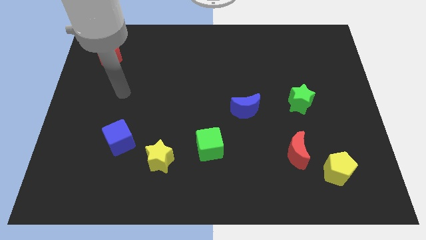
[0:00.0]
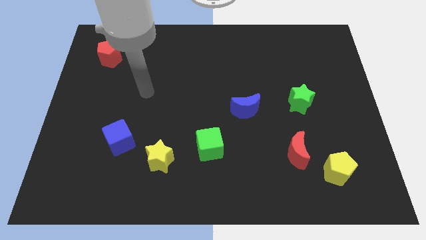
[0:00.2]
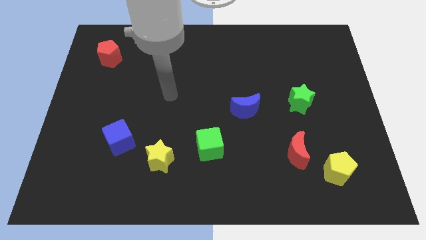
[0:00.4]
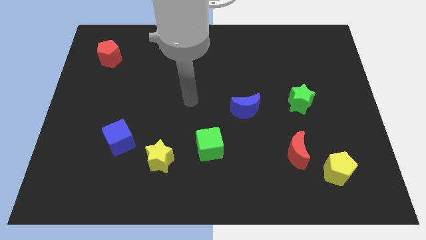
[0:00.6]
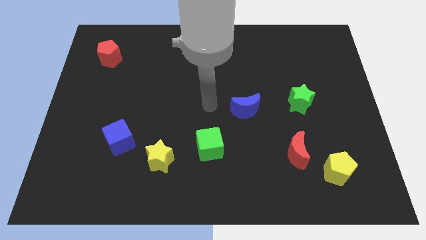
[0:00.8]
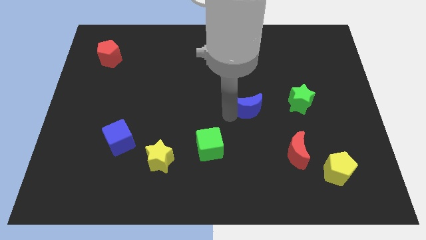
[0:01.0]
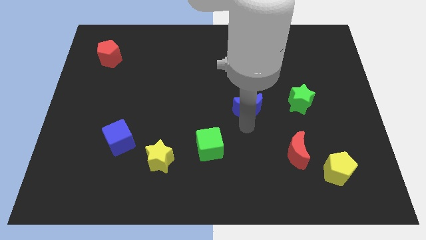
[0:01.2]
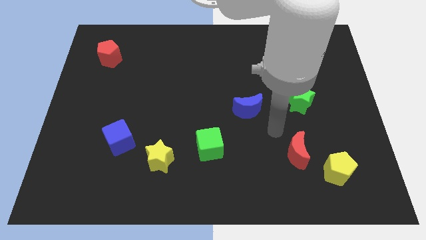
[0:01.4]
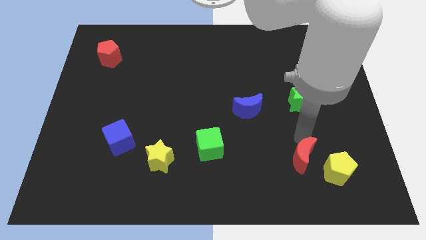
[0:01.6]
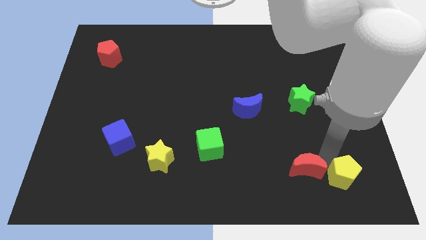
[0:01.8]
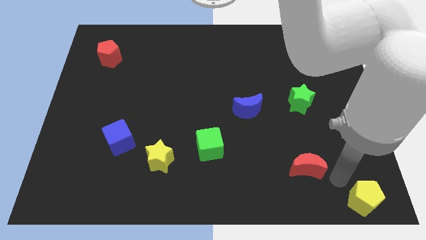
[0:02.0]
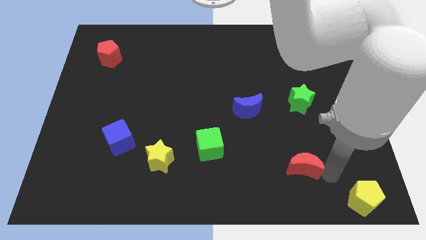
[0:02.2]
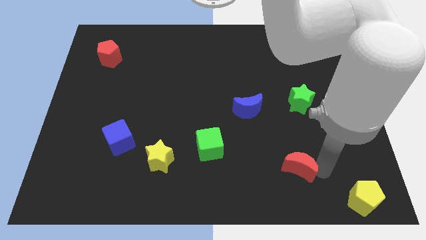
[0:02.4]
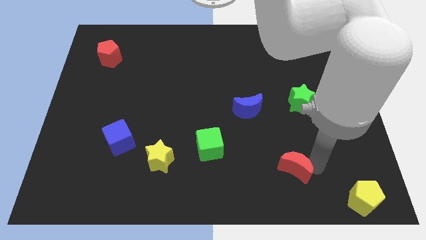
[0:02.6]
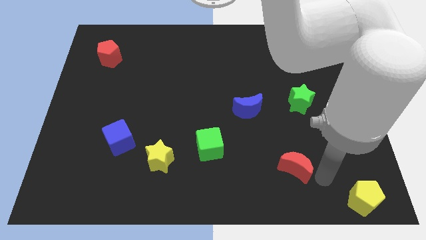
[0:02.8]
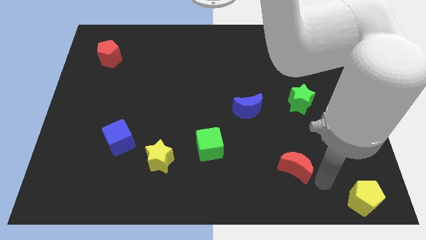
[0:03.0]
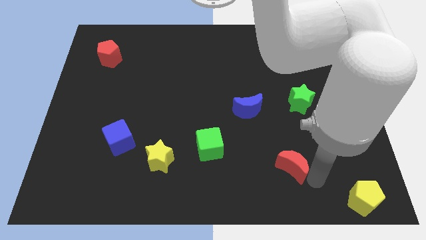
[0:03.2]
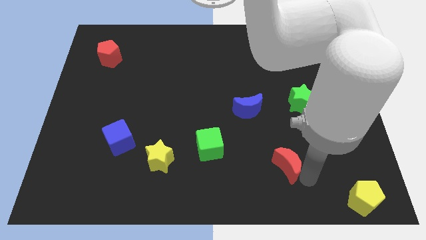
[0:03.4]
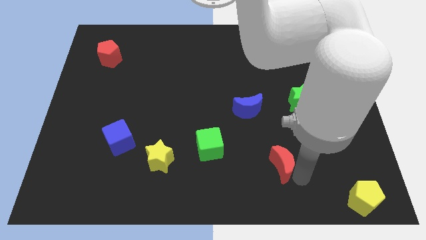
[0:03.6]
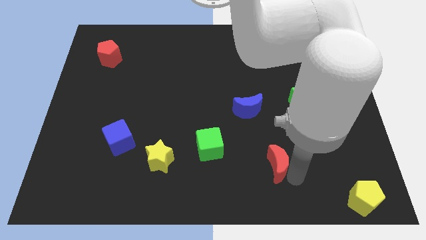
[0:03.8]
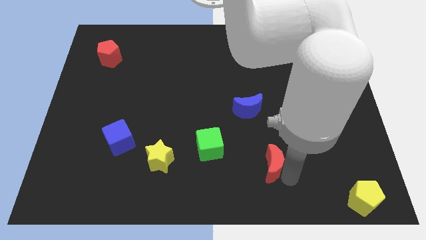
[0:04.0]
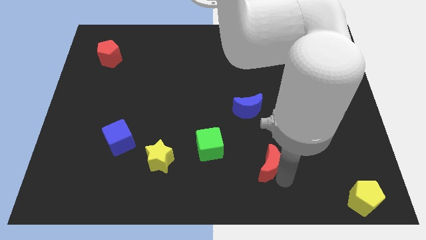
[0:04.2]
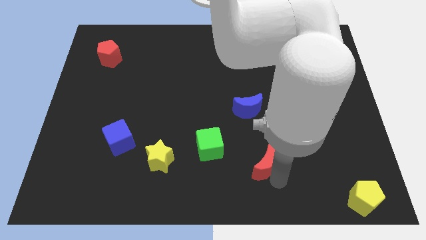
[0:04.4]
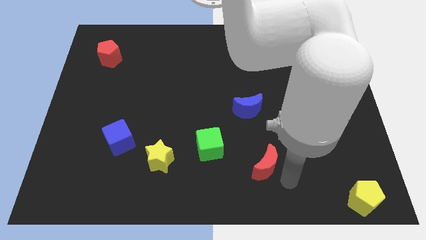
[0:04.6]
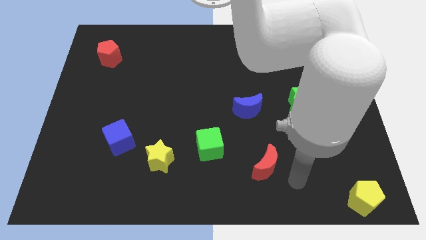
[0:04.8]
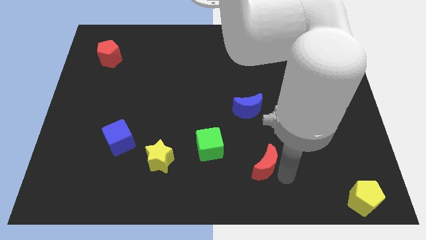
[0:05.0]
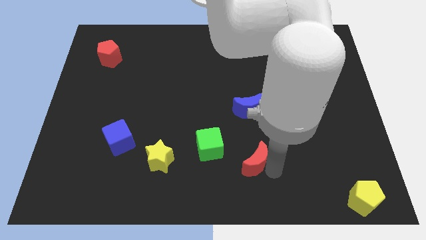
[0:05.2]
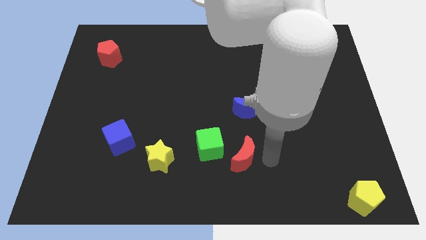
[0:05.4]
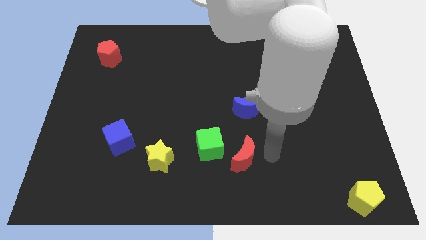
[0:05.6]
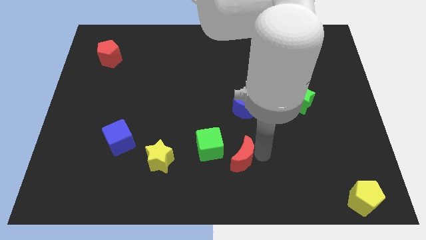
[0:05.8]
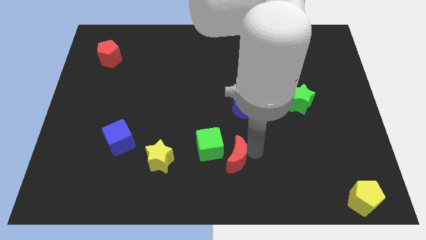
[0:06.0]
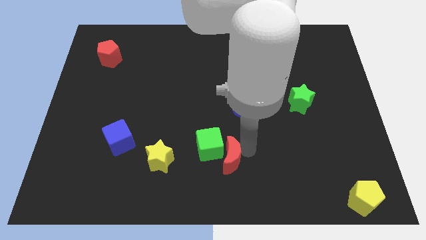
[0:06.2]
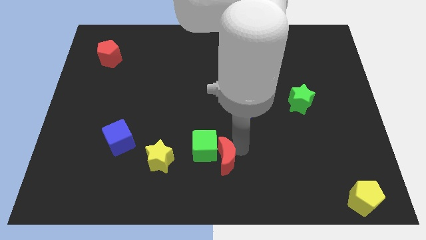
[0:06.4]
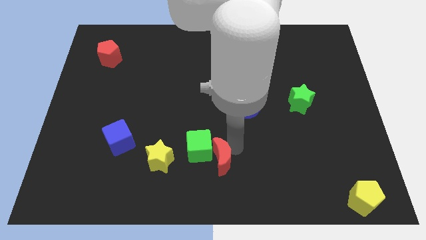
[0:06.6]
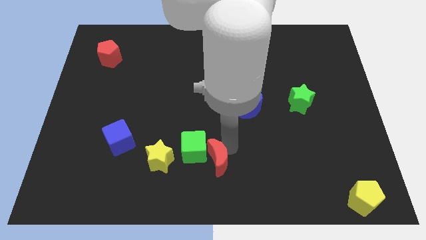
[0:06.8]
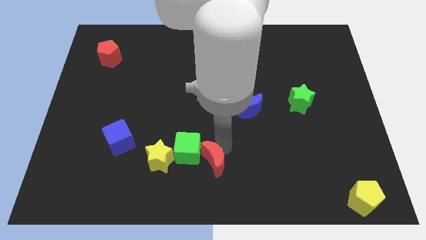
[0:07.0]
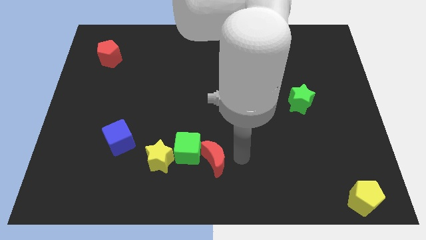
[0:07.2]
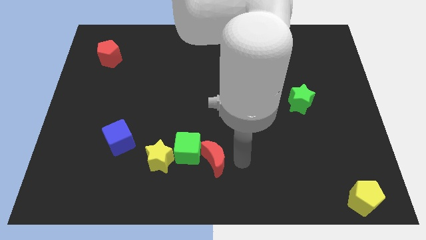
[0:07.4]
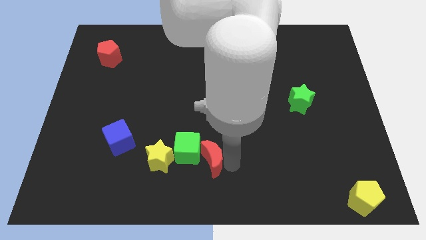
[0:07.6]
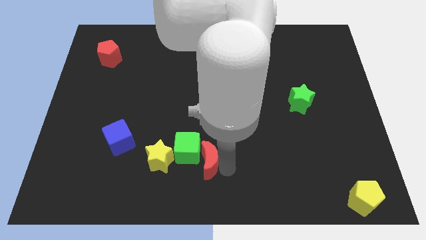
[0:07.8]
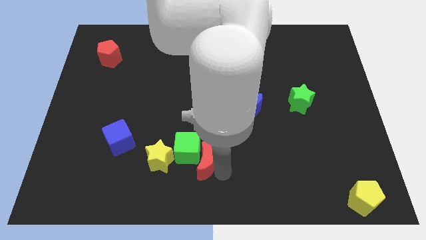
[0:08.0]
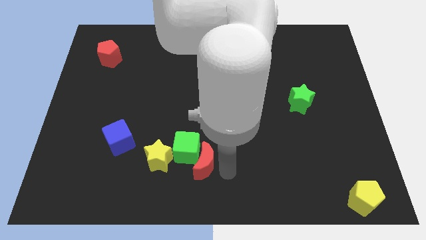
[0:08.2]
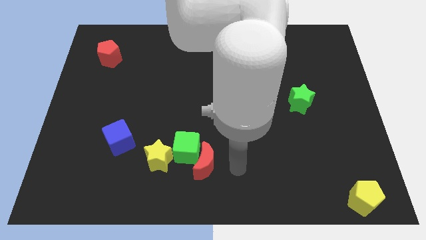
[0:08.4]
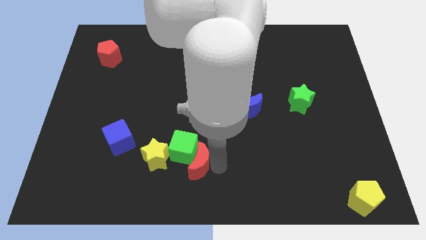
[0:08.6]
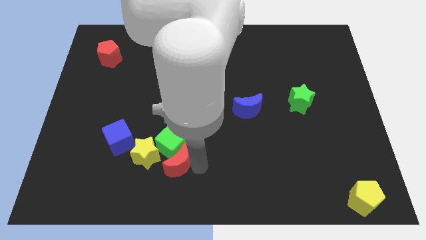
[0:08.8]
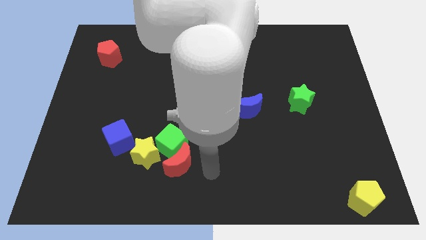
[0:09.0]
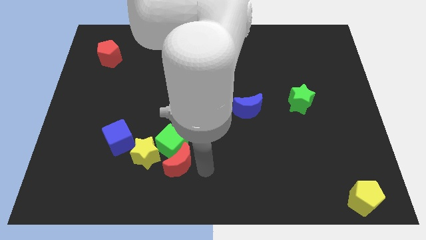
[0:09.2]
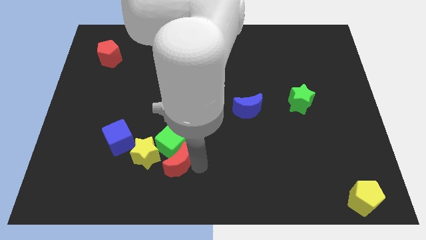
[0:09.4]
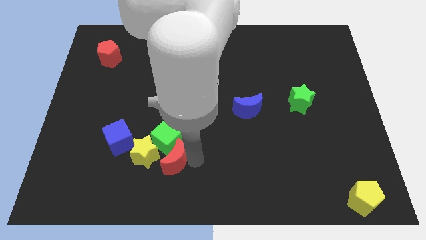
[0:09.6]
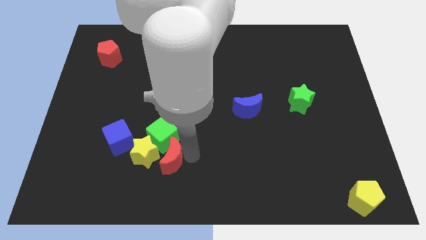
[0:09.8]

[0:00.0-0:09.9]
move the red moon to the yellow star

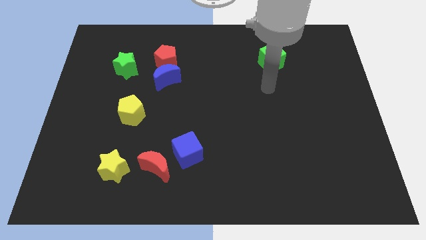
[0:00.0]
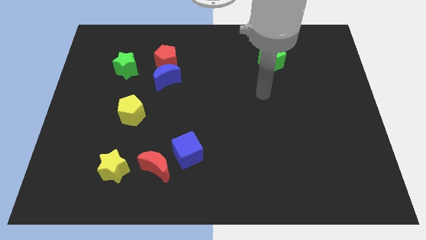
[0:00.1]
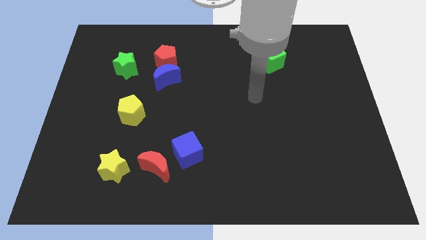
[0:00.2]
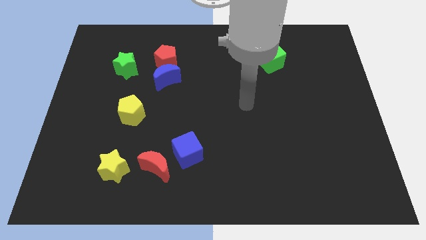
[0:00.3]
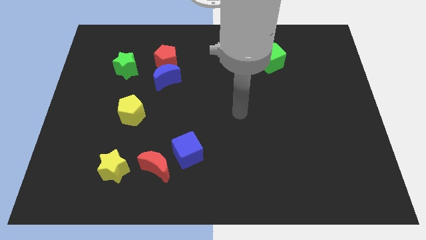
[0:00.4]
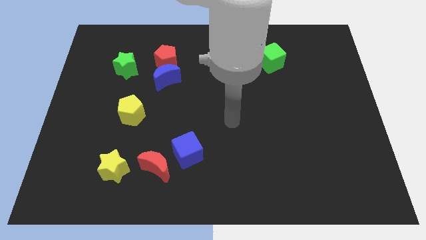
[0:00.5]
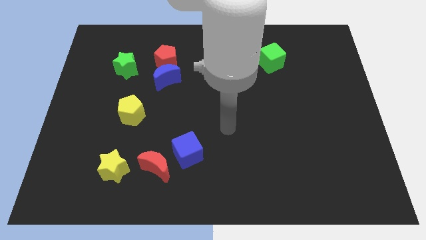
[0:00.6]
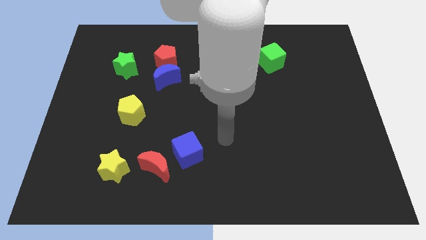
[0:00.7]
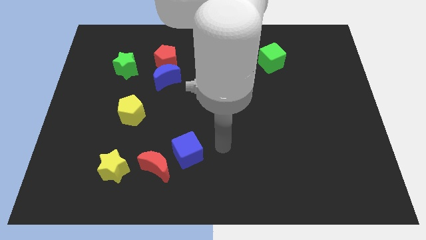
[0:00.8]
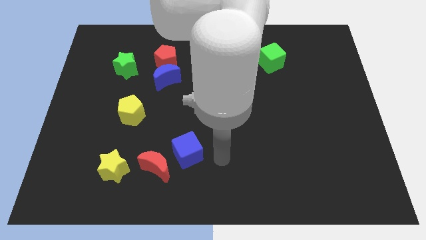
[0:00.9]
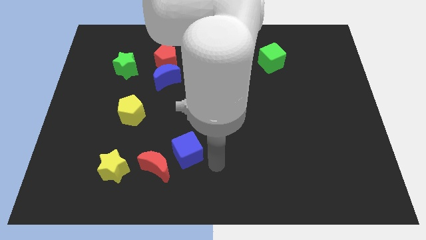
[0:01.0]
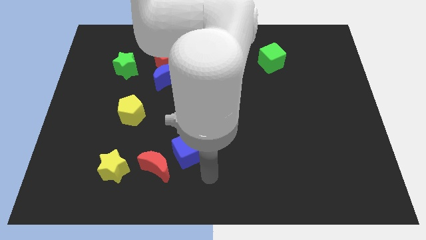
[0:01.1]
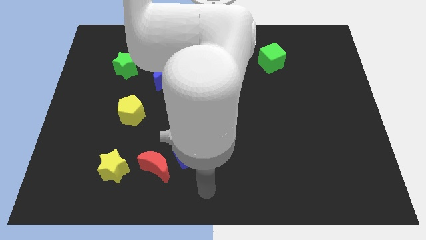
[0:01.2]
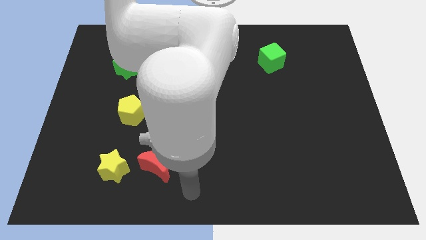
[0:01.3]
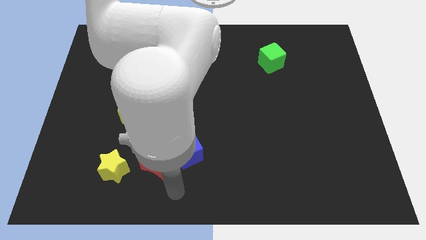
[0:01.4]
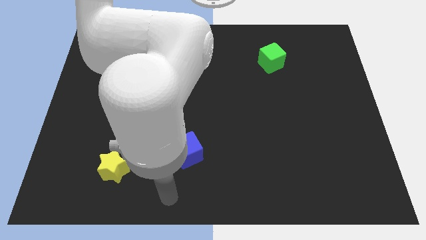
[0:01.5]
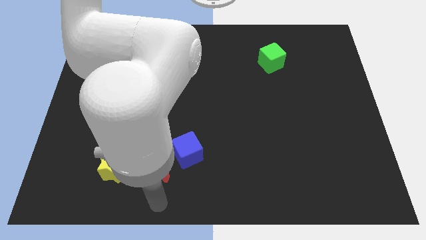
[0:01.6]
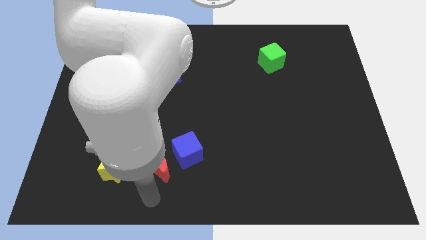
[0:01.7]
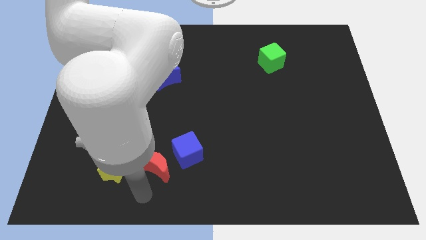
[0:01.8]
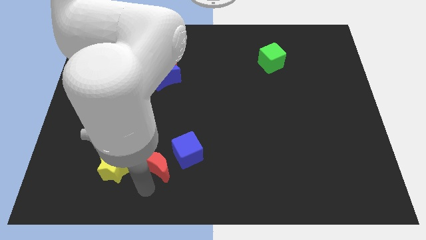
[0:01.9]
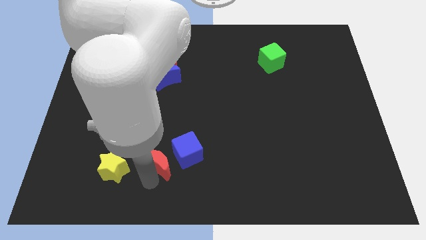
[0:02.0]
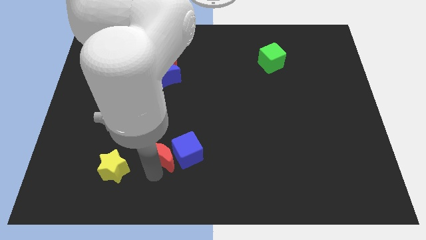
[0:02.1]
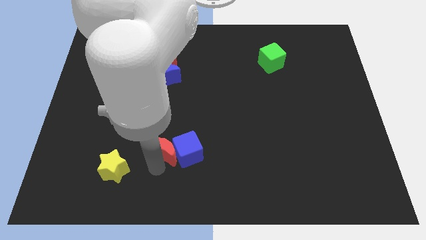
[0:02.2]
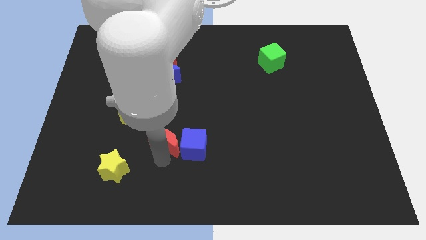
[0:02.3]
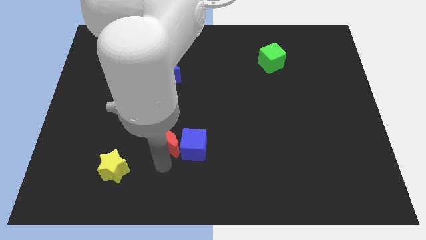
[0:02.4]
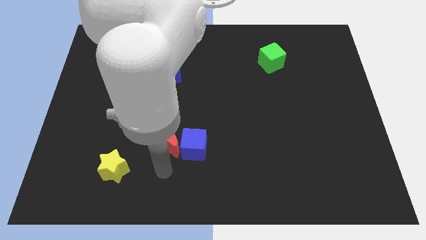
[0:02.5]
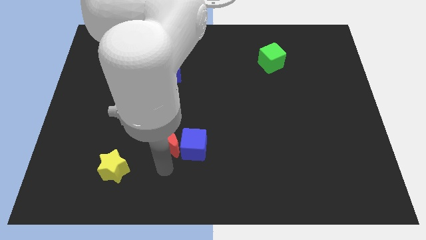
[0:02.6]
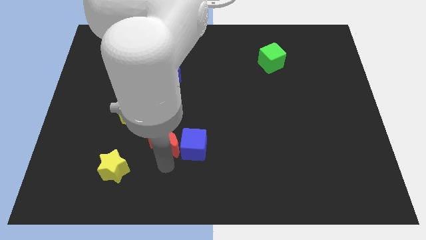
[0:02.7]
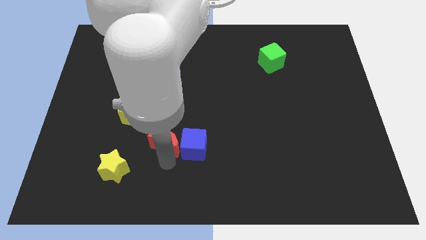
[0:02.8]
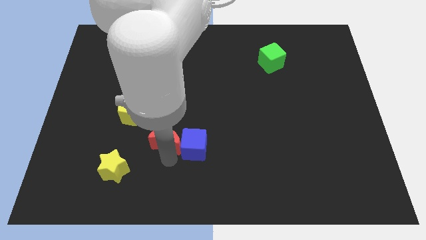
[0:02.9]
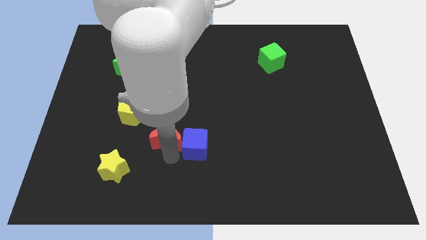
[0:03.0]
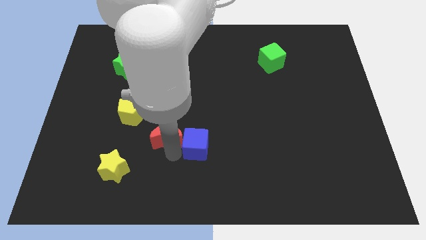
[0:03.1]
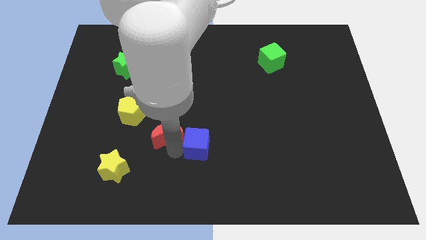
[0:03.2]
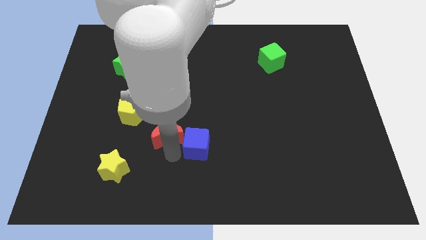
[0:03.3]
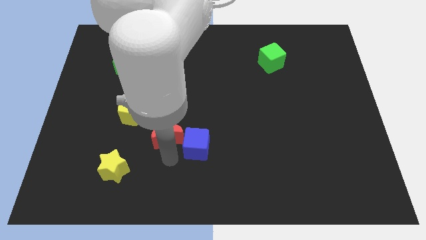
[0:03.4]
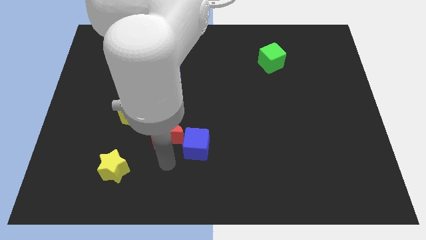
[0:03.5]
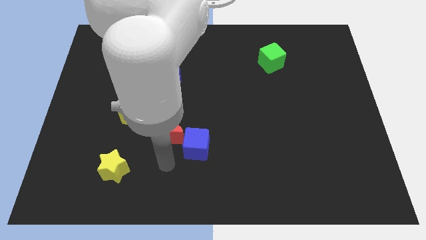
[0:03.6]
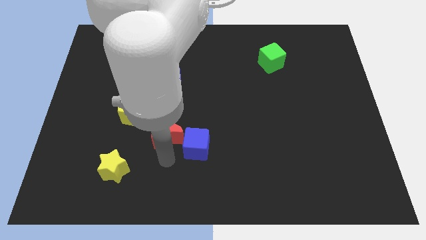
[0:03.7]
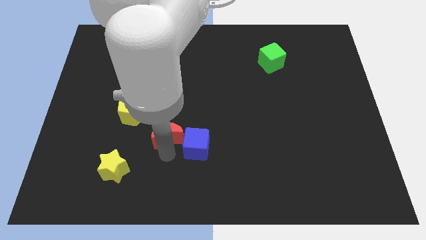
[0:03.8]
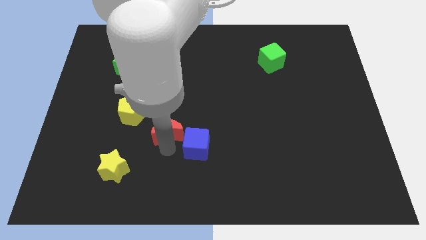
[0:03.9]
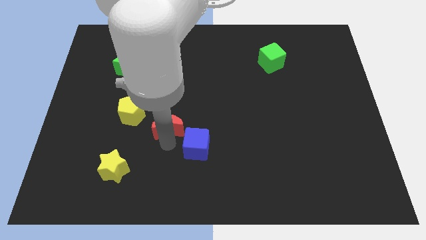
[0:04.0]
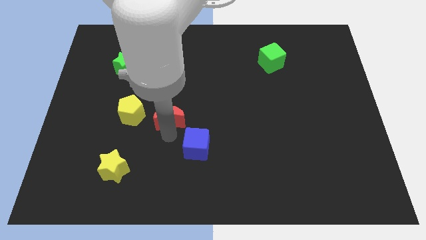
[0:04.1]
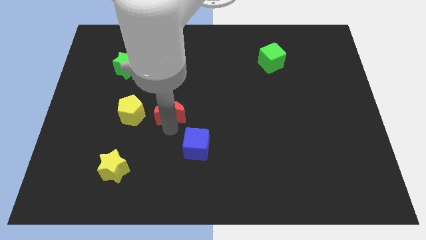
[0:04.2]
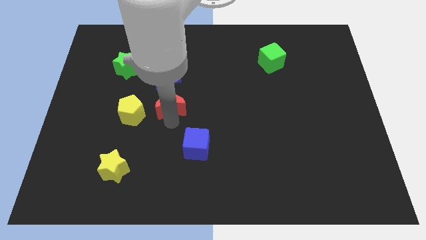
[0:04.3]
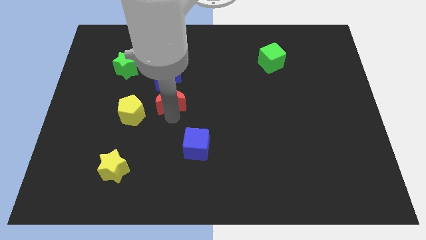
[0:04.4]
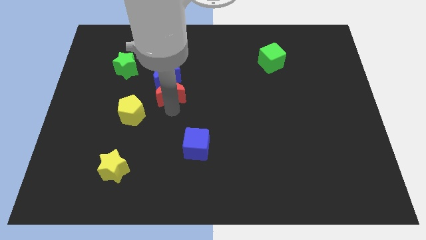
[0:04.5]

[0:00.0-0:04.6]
push the red moon towards the blue moon
